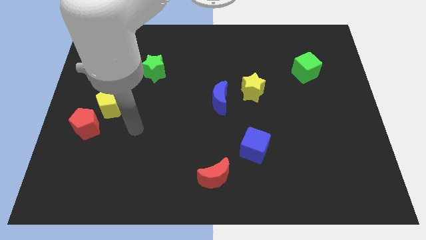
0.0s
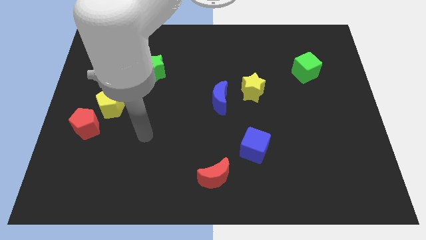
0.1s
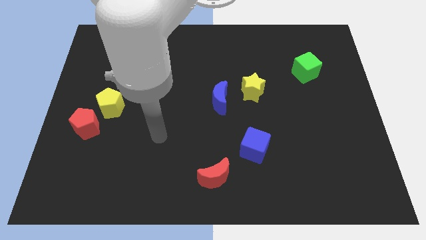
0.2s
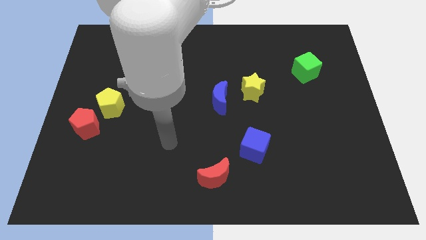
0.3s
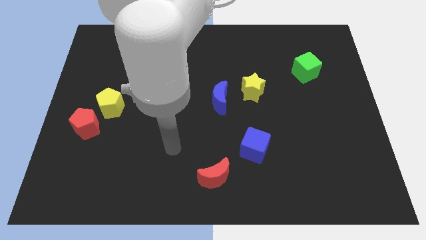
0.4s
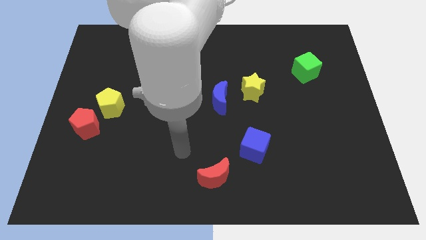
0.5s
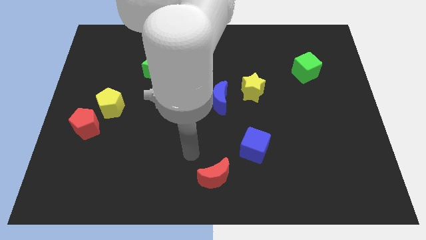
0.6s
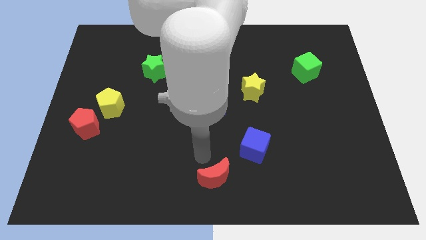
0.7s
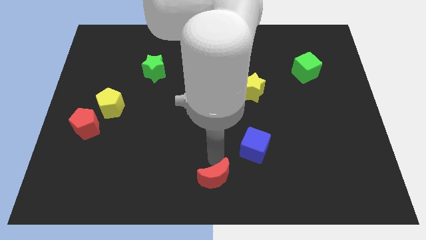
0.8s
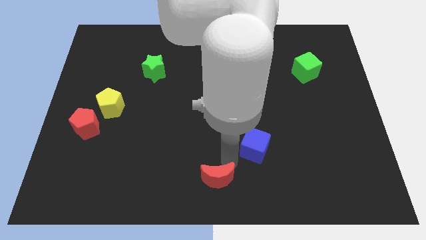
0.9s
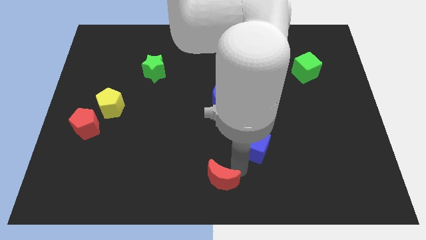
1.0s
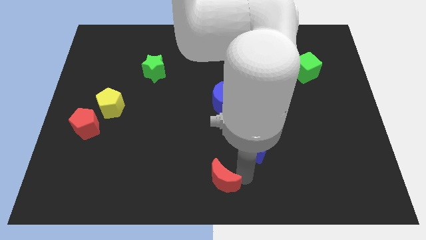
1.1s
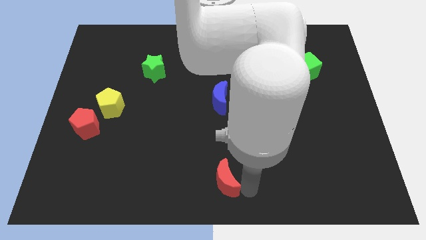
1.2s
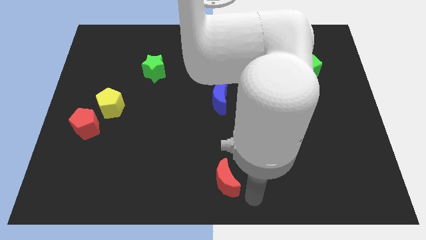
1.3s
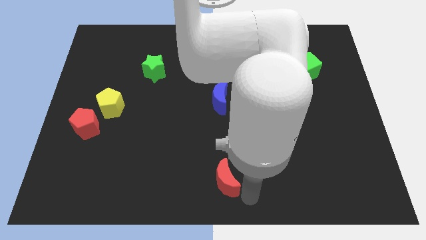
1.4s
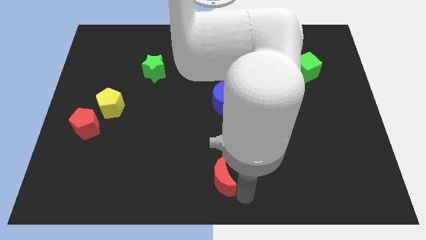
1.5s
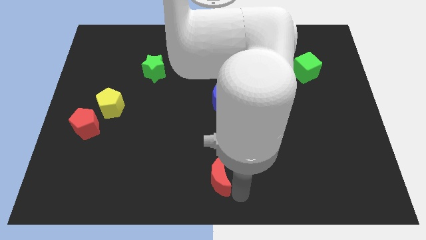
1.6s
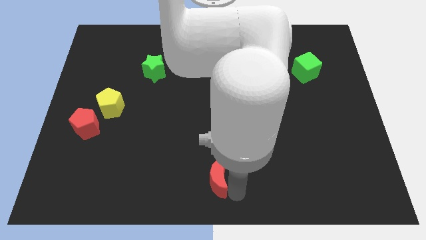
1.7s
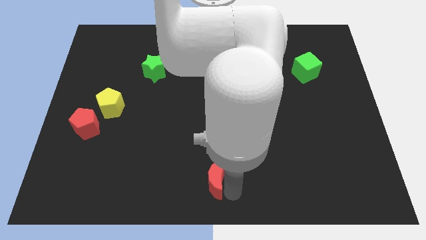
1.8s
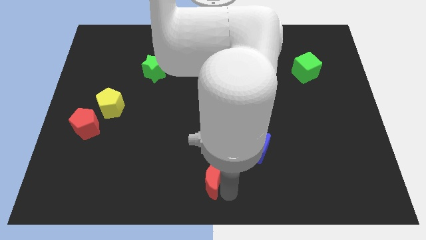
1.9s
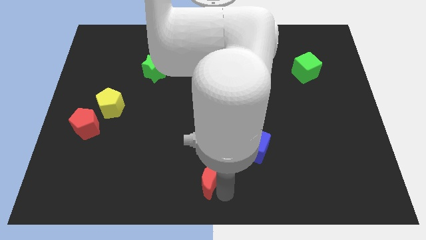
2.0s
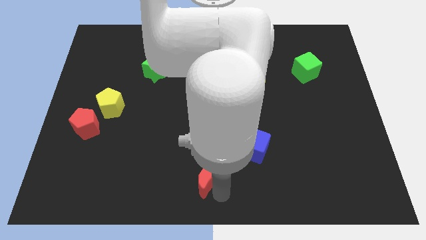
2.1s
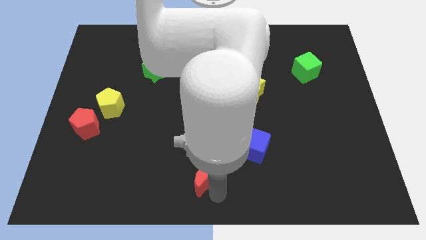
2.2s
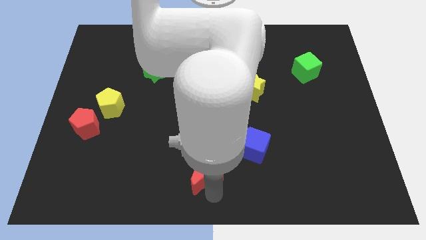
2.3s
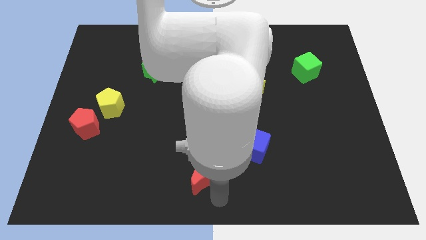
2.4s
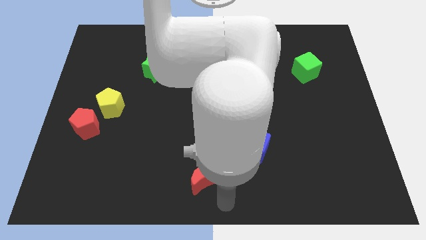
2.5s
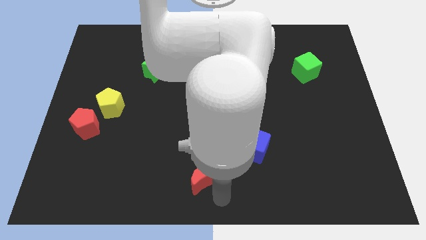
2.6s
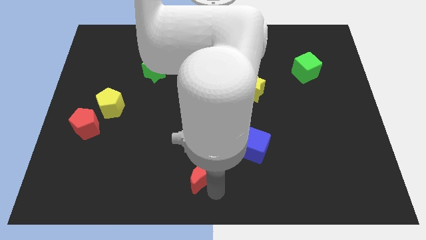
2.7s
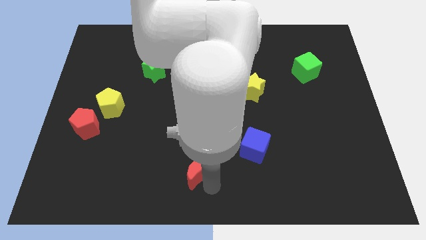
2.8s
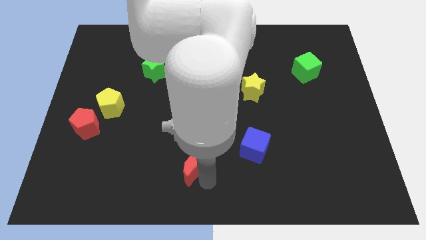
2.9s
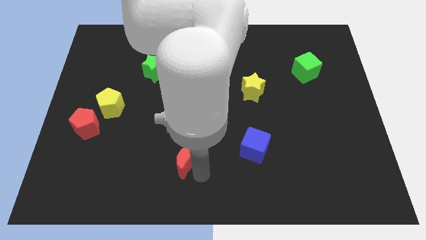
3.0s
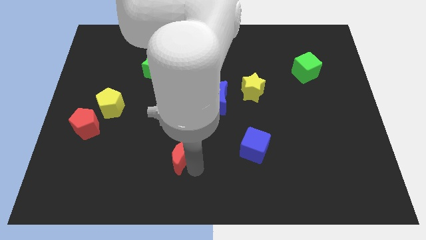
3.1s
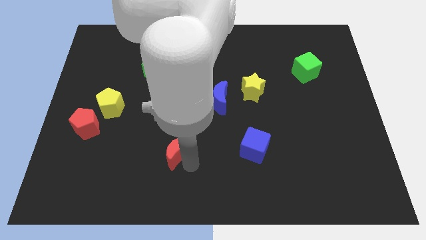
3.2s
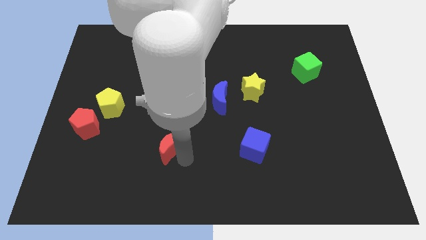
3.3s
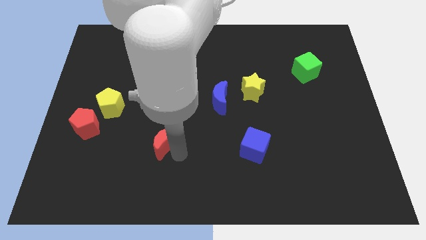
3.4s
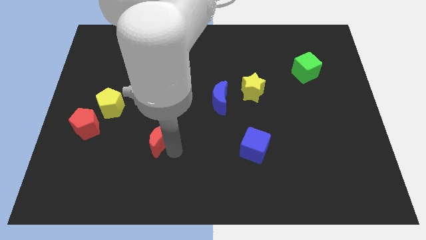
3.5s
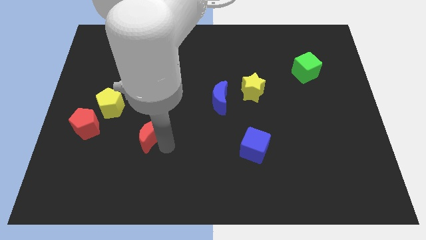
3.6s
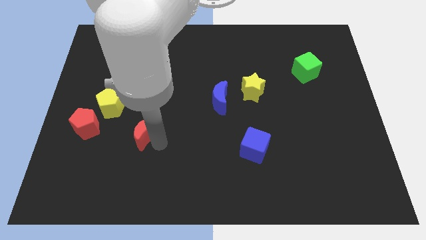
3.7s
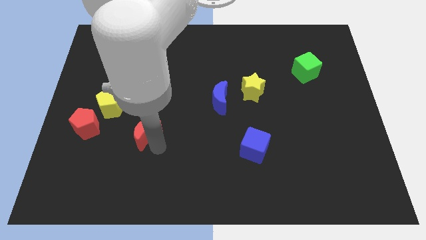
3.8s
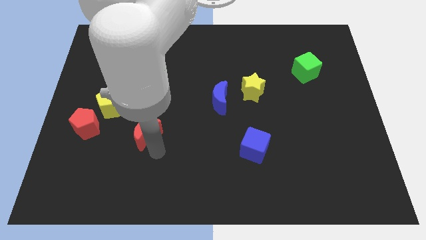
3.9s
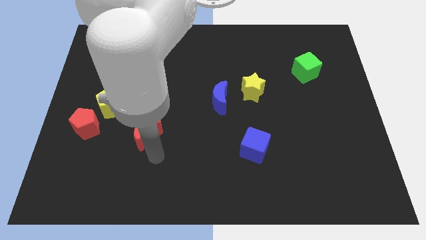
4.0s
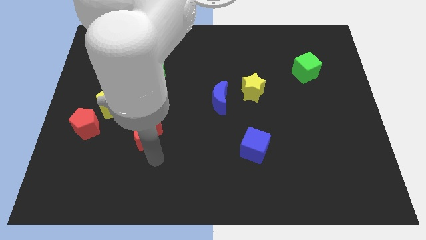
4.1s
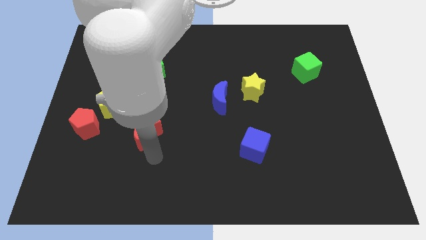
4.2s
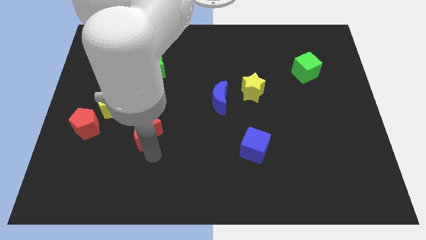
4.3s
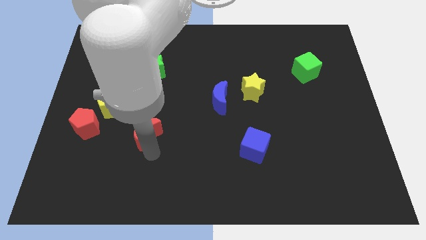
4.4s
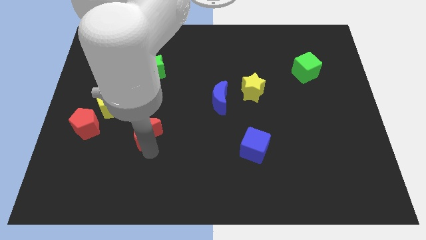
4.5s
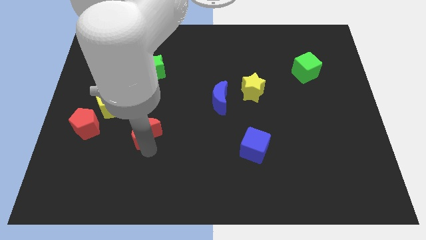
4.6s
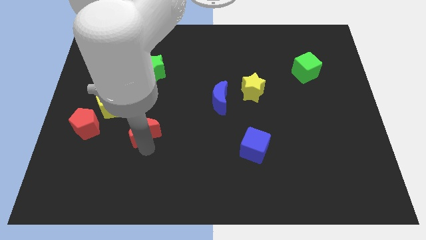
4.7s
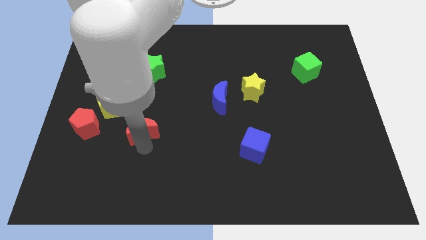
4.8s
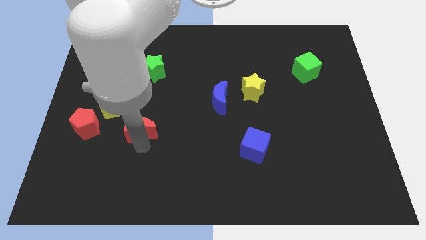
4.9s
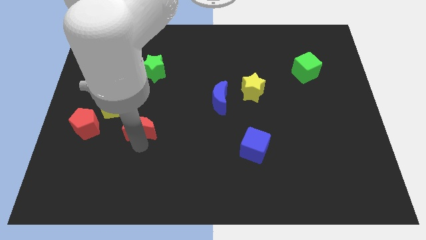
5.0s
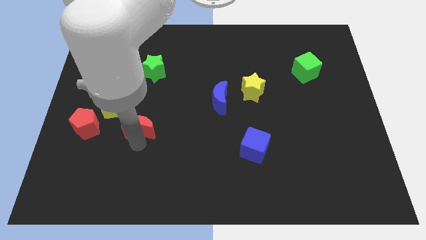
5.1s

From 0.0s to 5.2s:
move the red moon upwards and left diagonally

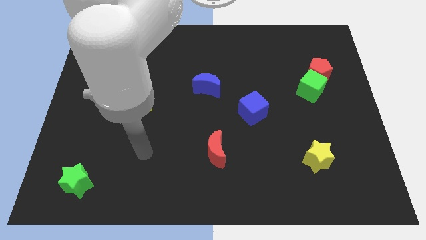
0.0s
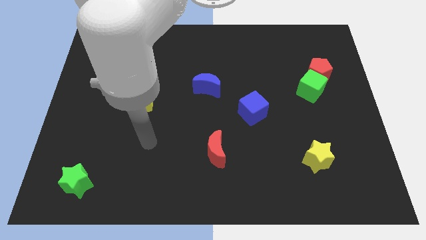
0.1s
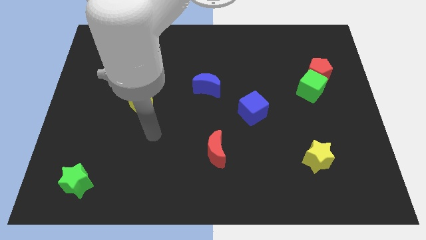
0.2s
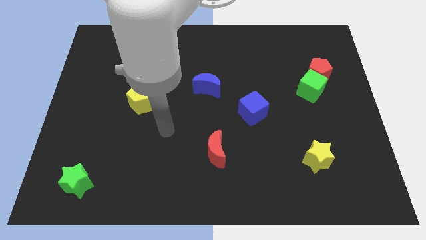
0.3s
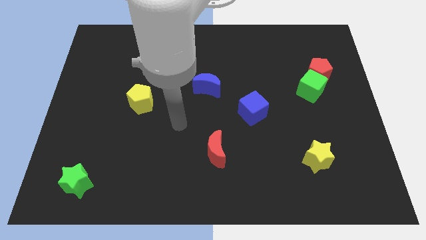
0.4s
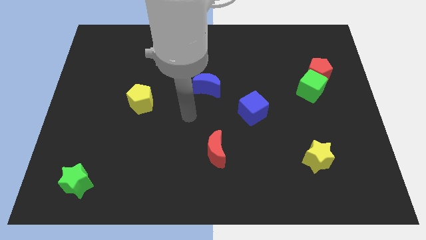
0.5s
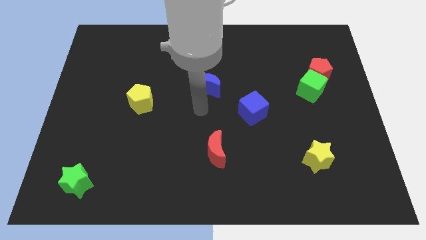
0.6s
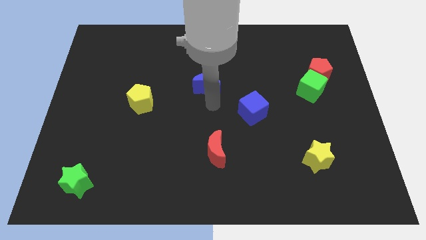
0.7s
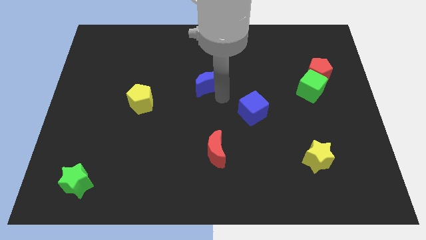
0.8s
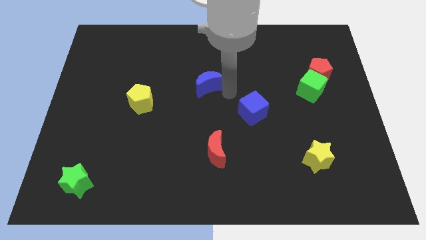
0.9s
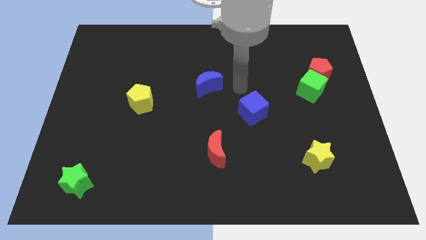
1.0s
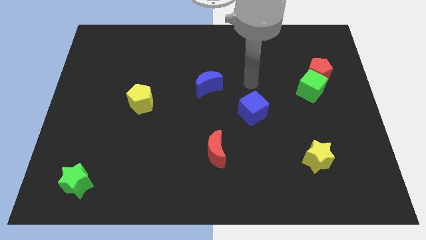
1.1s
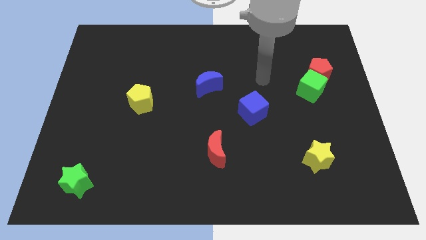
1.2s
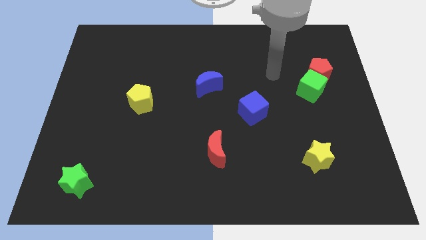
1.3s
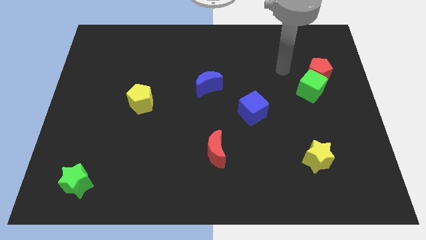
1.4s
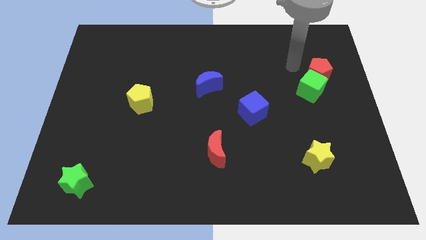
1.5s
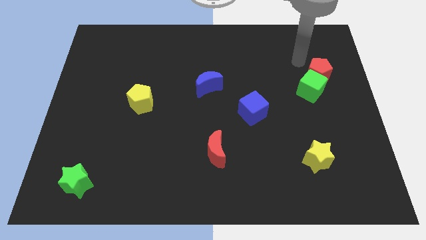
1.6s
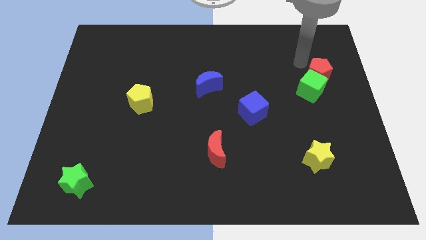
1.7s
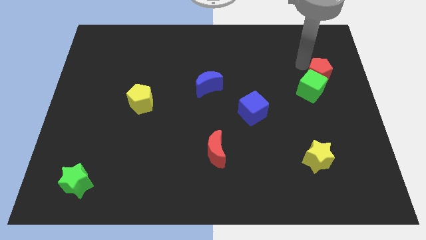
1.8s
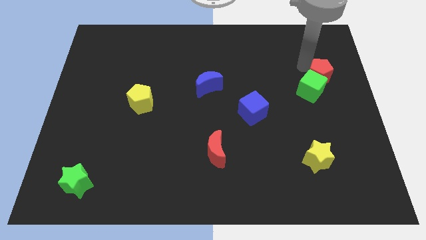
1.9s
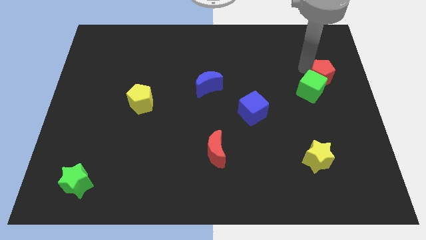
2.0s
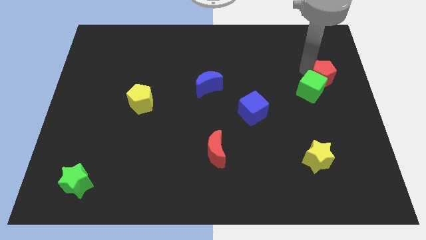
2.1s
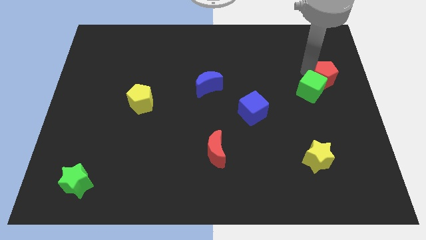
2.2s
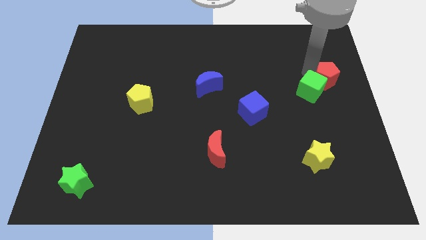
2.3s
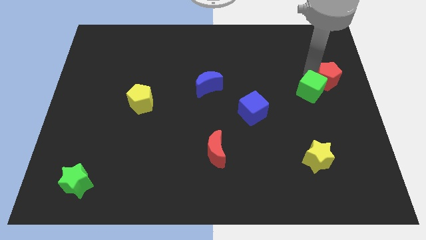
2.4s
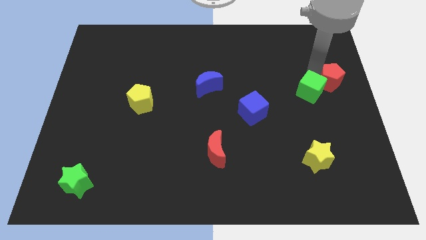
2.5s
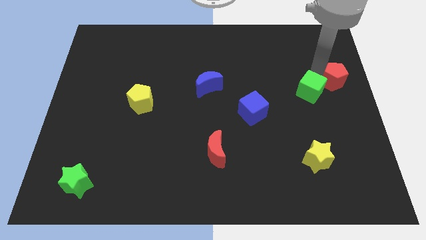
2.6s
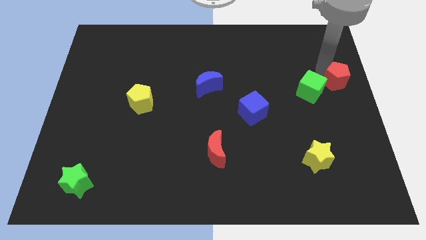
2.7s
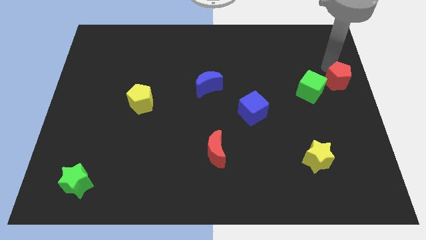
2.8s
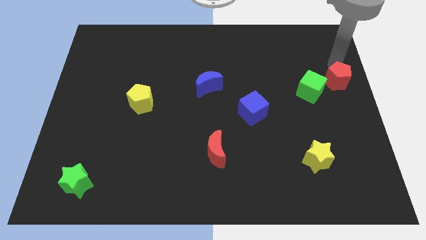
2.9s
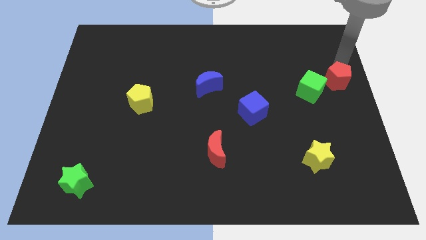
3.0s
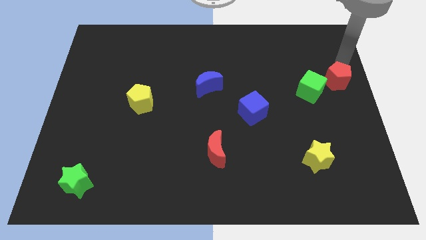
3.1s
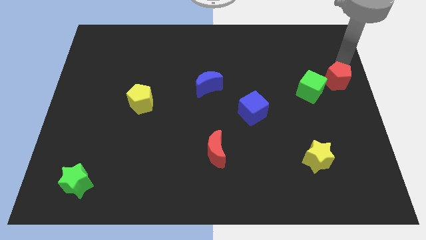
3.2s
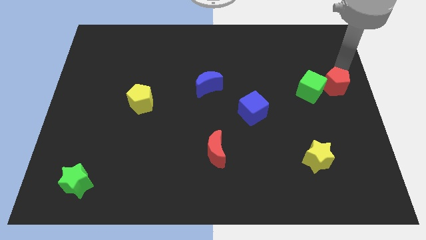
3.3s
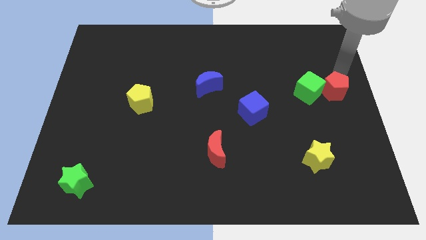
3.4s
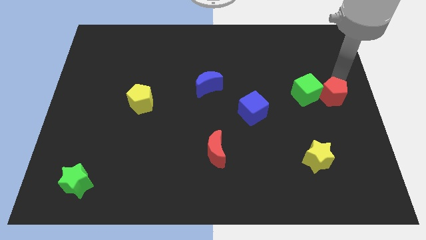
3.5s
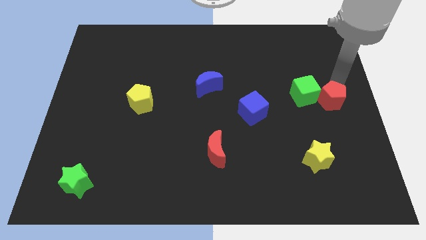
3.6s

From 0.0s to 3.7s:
push the red pentagon a little bit downwards
